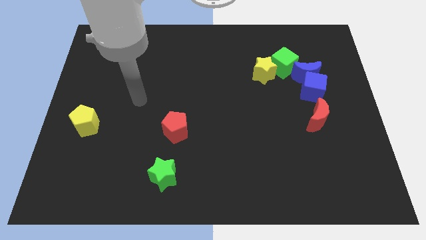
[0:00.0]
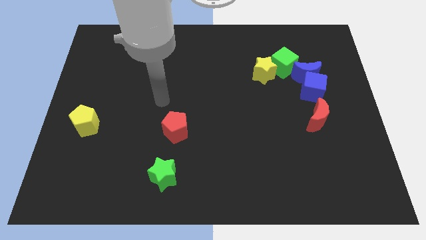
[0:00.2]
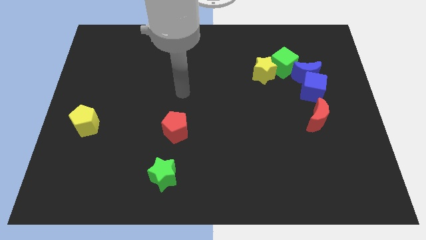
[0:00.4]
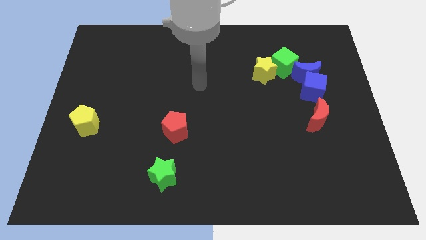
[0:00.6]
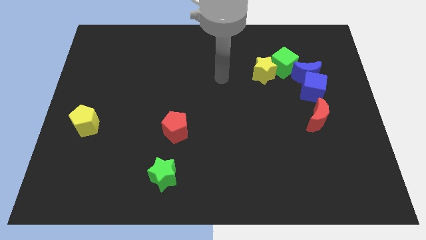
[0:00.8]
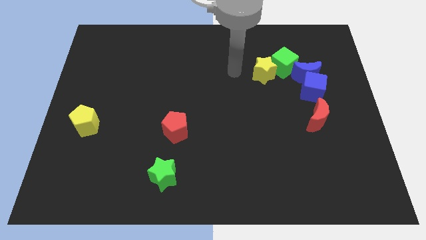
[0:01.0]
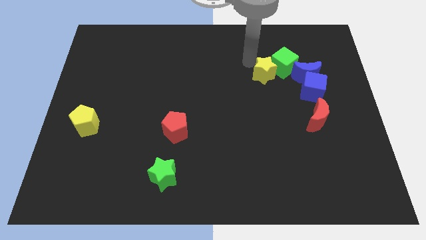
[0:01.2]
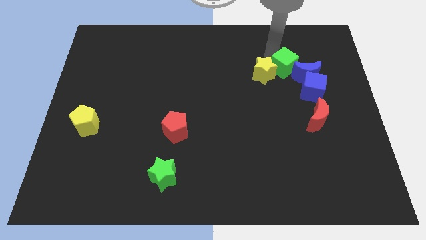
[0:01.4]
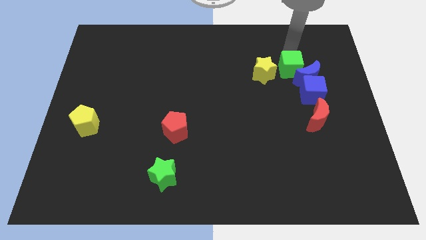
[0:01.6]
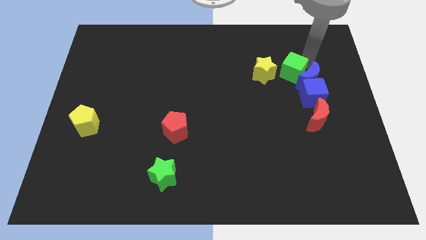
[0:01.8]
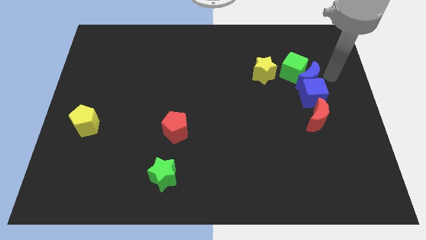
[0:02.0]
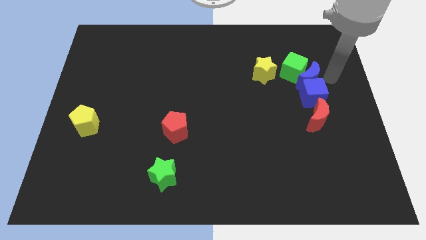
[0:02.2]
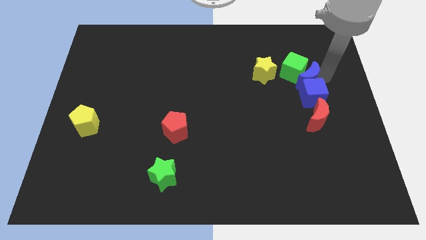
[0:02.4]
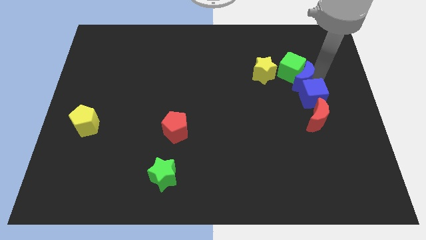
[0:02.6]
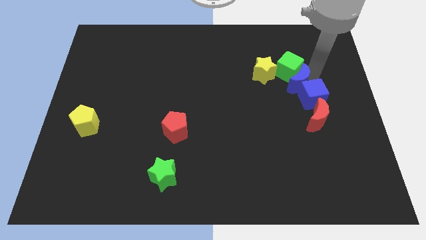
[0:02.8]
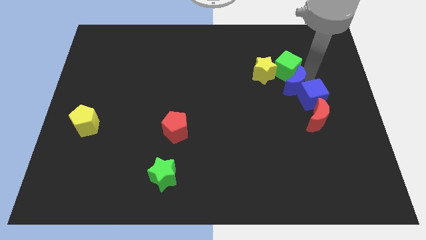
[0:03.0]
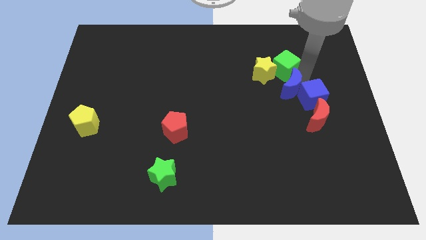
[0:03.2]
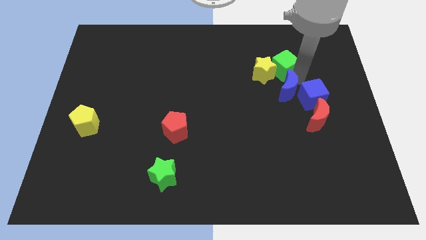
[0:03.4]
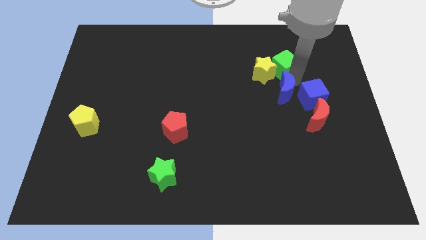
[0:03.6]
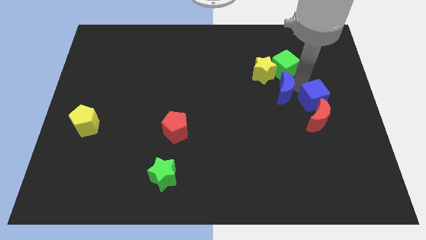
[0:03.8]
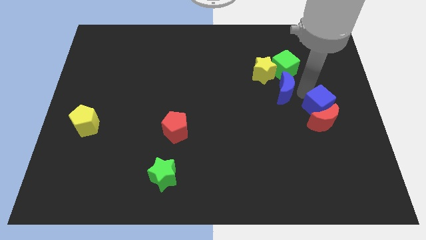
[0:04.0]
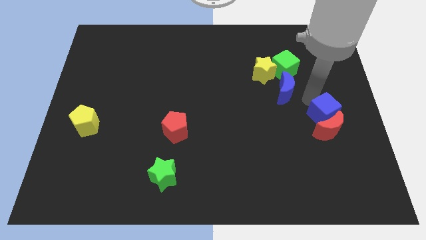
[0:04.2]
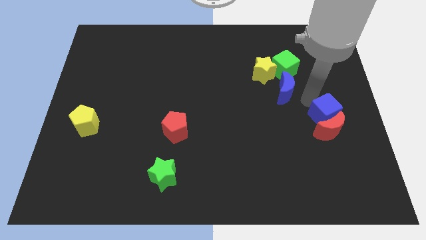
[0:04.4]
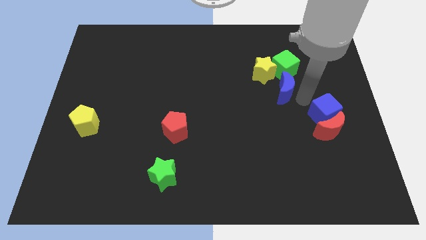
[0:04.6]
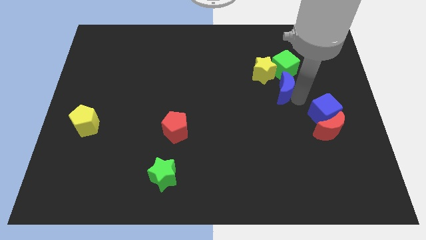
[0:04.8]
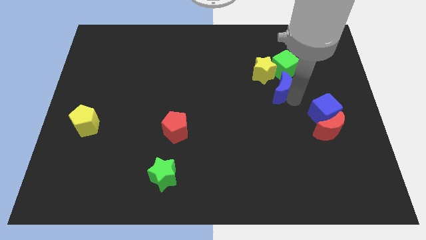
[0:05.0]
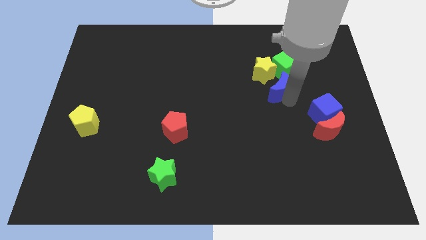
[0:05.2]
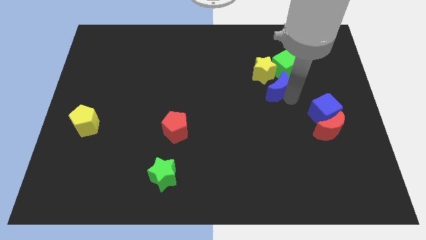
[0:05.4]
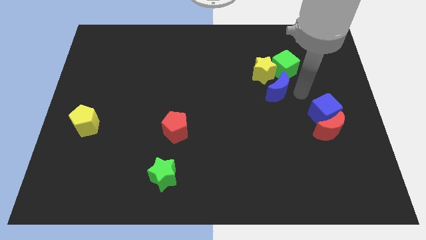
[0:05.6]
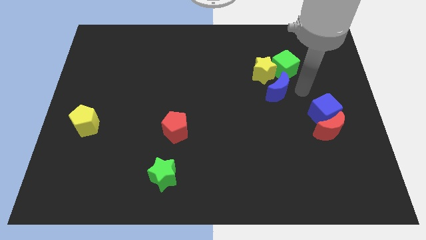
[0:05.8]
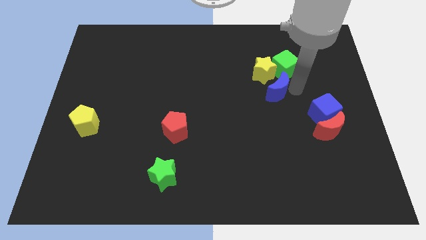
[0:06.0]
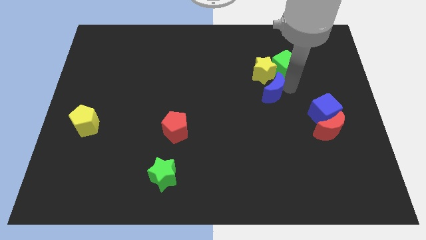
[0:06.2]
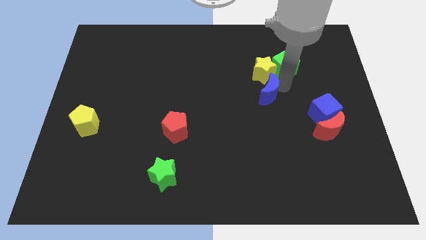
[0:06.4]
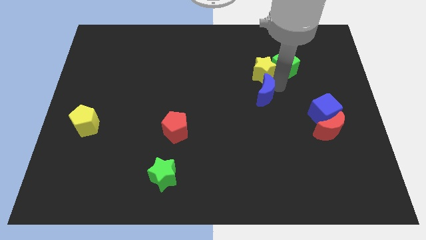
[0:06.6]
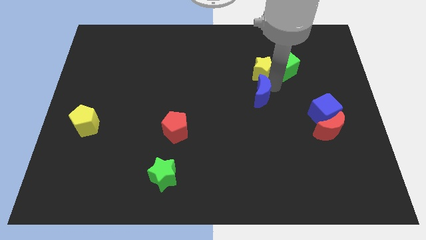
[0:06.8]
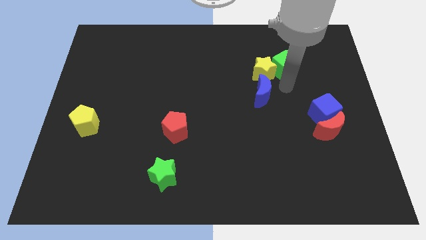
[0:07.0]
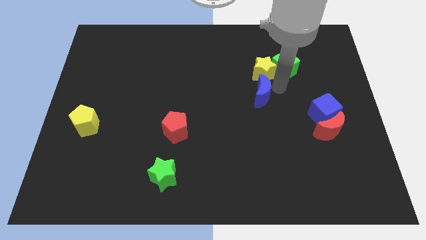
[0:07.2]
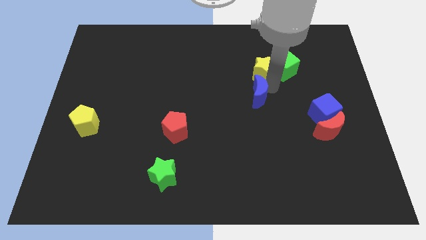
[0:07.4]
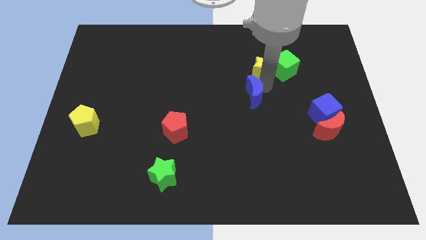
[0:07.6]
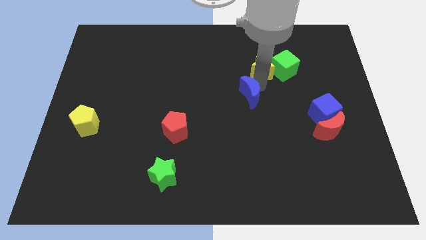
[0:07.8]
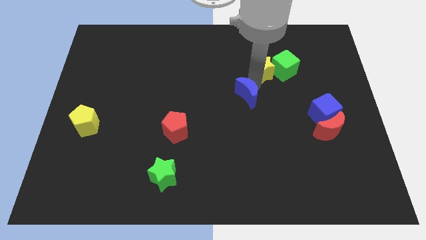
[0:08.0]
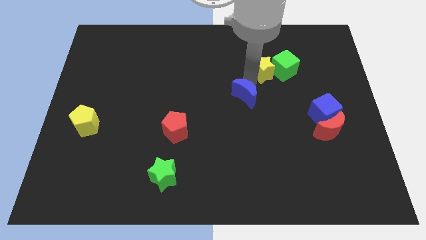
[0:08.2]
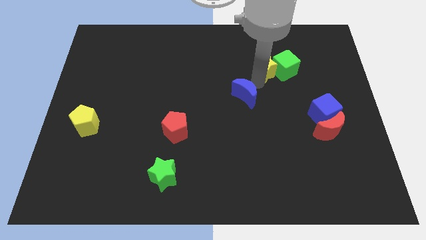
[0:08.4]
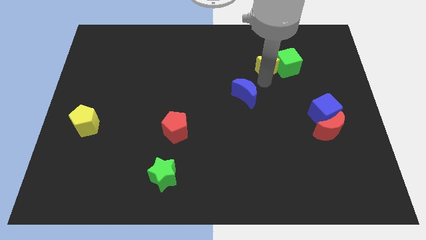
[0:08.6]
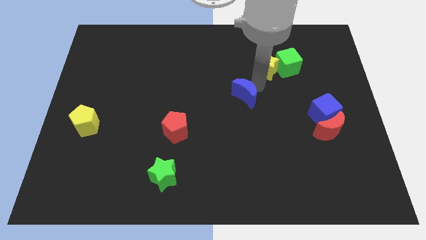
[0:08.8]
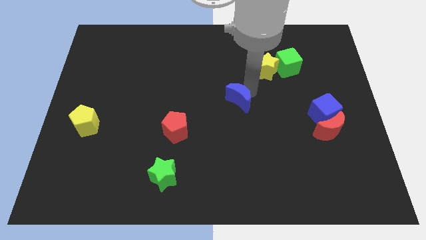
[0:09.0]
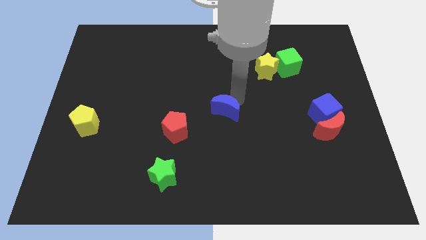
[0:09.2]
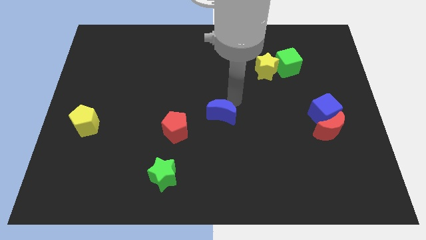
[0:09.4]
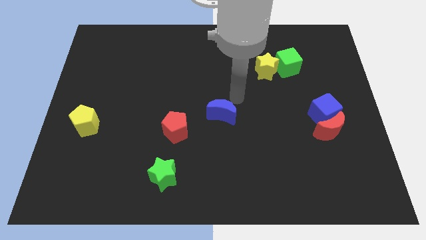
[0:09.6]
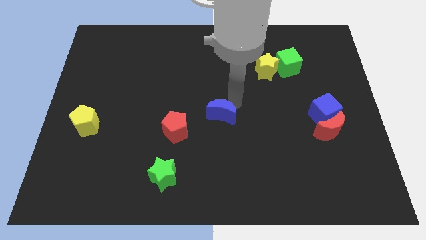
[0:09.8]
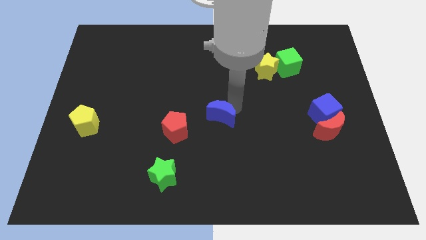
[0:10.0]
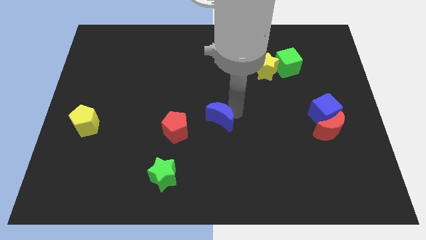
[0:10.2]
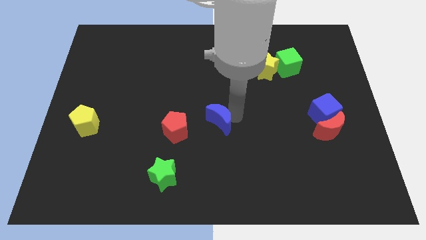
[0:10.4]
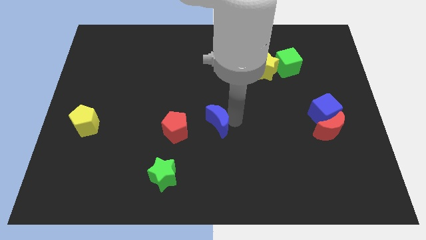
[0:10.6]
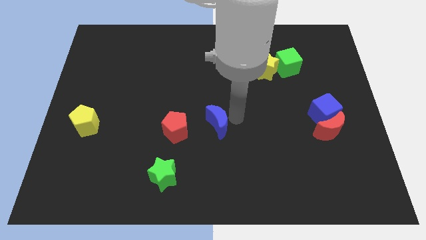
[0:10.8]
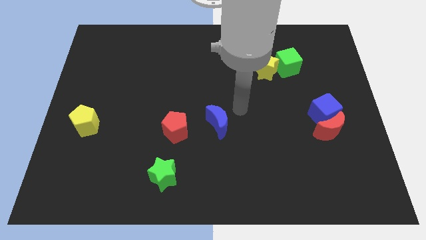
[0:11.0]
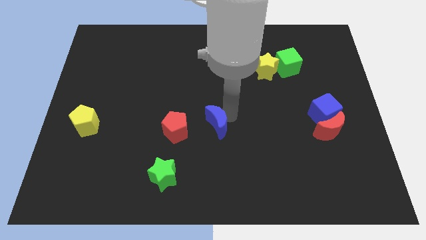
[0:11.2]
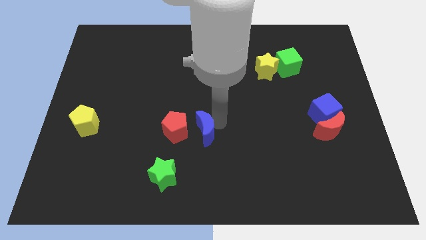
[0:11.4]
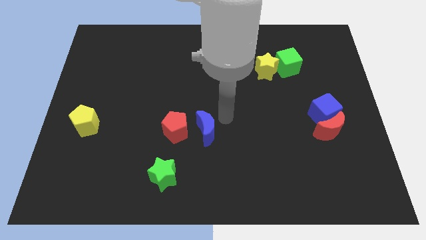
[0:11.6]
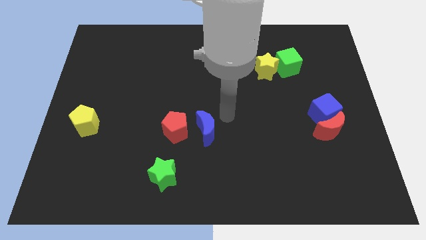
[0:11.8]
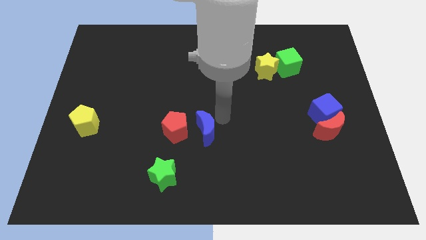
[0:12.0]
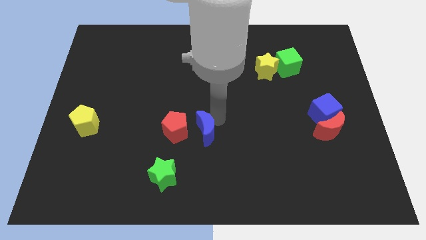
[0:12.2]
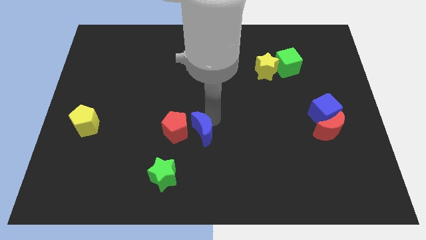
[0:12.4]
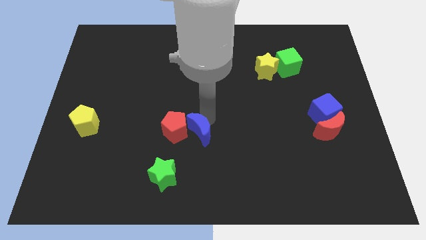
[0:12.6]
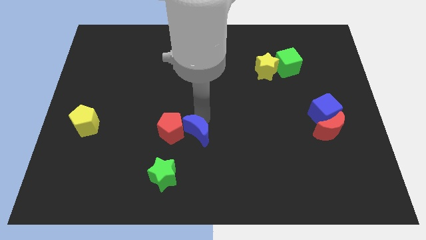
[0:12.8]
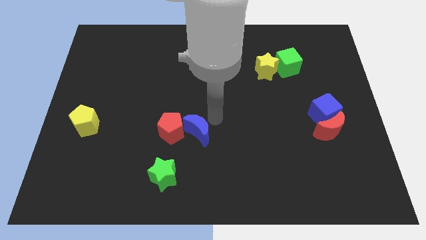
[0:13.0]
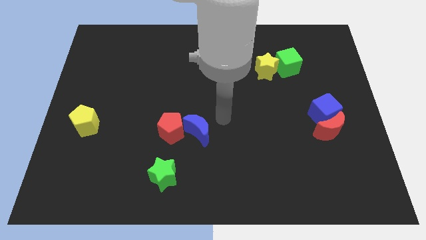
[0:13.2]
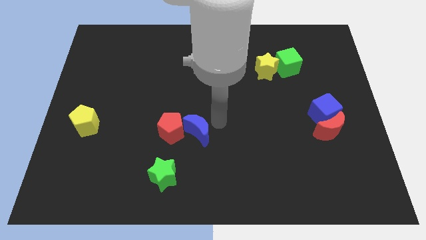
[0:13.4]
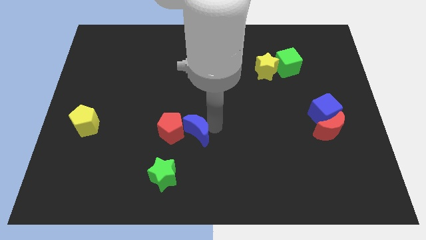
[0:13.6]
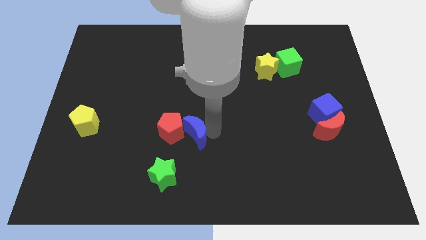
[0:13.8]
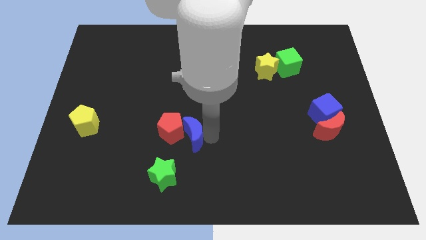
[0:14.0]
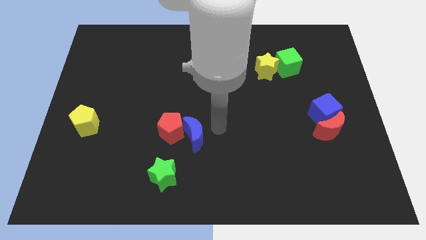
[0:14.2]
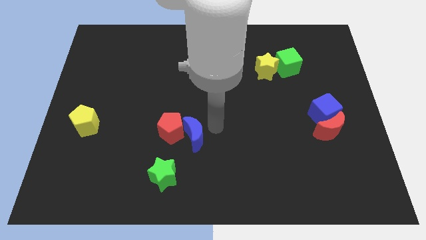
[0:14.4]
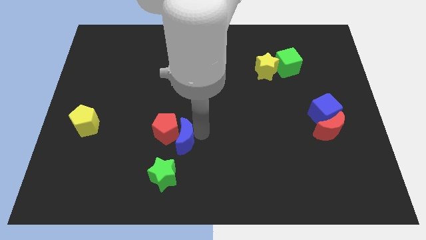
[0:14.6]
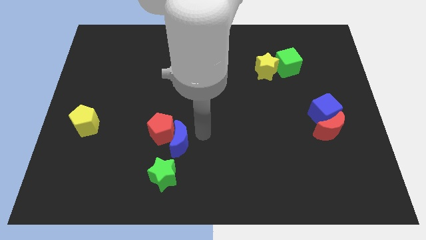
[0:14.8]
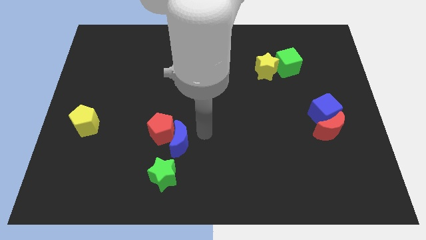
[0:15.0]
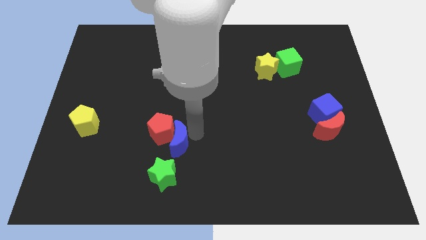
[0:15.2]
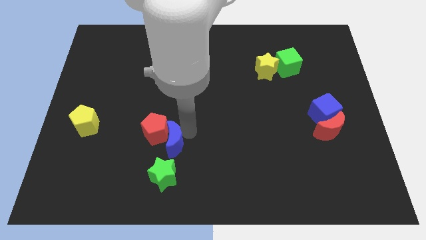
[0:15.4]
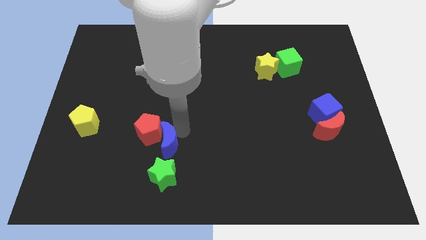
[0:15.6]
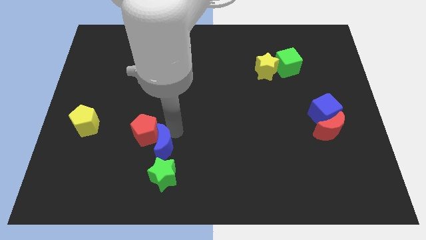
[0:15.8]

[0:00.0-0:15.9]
move the blue moon to the top left side of the green star
